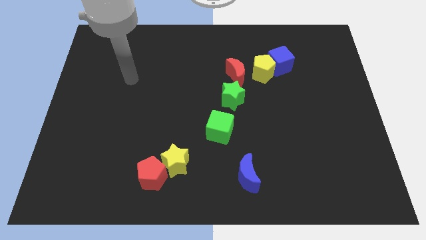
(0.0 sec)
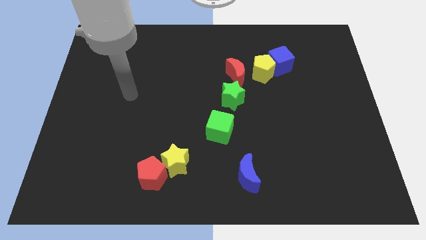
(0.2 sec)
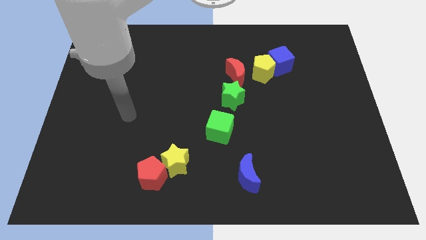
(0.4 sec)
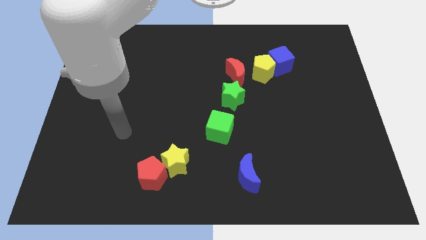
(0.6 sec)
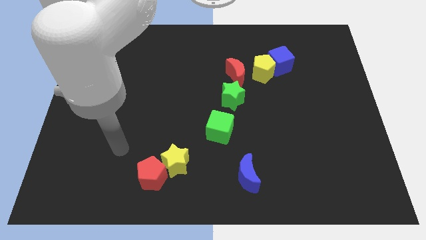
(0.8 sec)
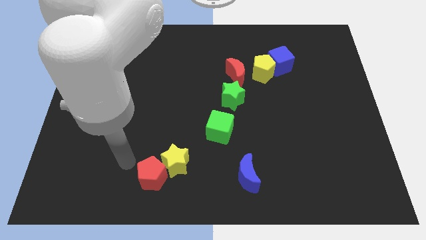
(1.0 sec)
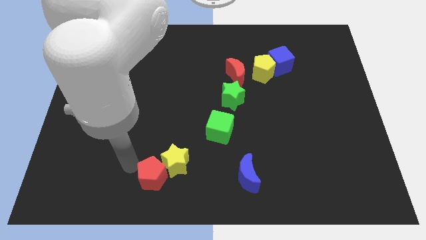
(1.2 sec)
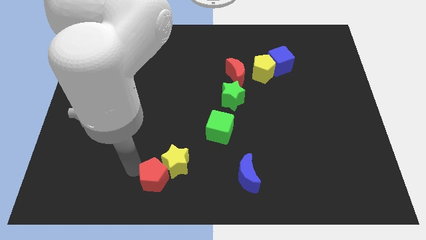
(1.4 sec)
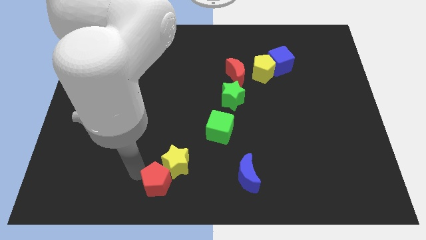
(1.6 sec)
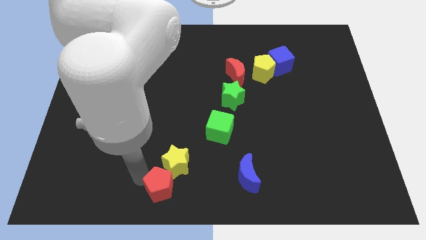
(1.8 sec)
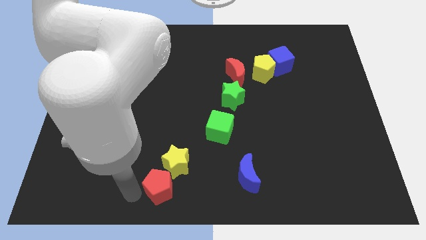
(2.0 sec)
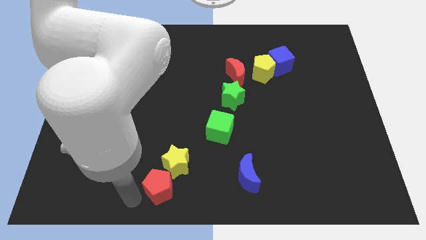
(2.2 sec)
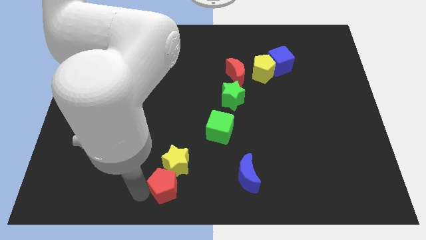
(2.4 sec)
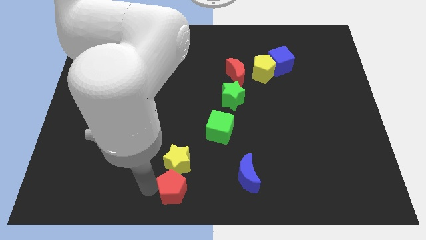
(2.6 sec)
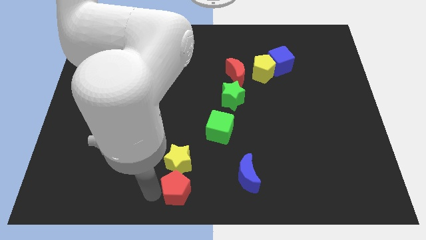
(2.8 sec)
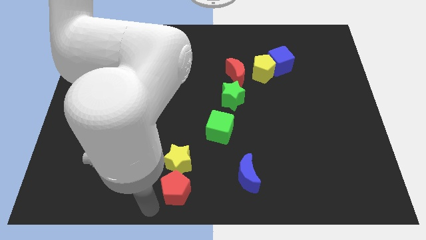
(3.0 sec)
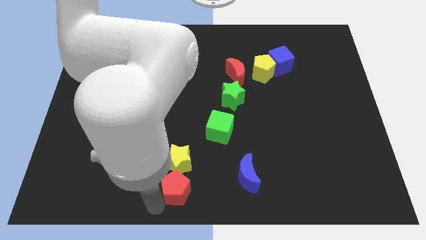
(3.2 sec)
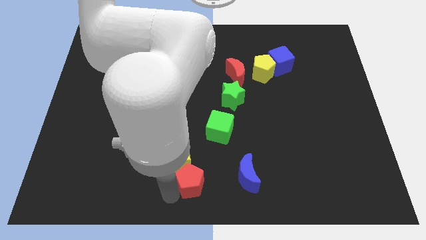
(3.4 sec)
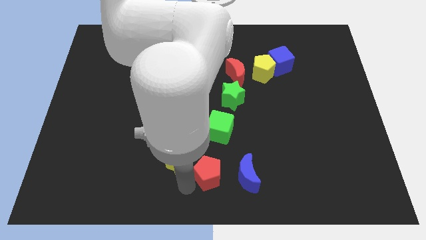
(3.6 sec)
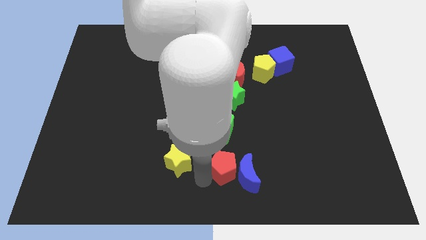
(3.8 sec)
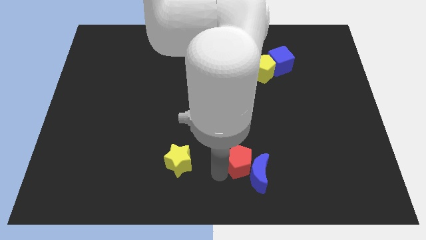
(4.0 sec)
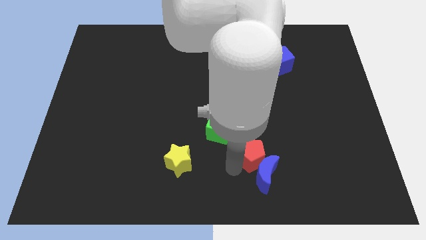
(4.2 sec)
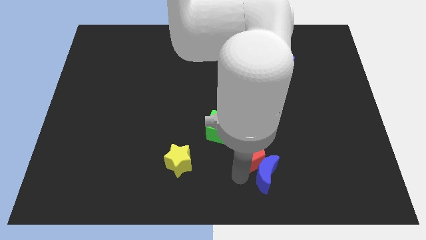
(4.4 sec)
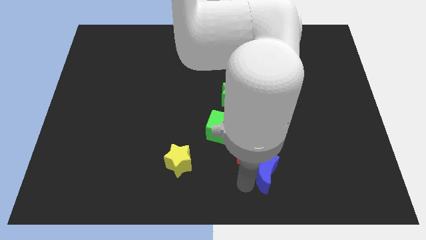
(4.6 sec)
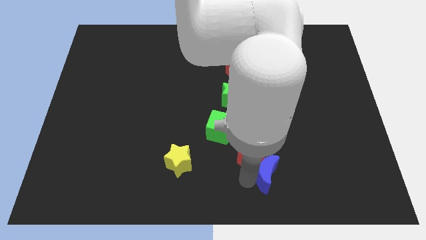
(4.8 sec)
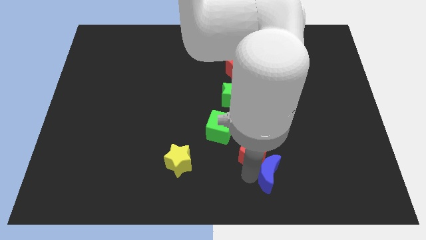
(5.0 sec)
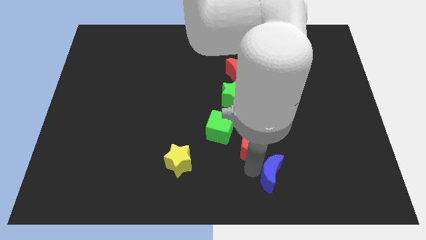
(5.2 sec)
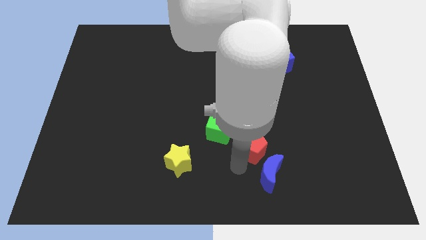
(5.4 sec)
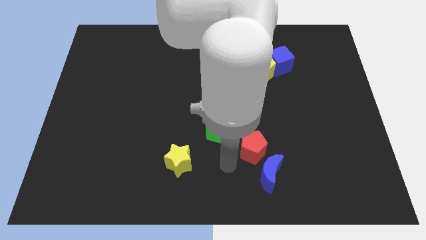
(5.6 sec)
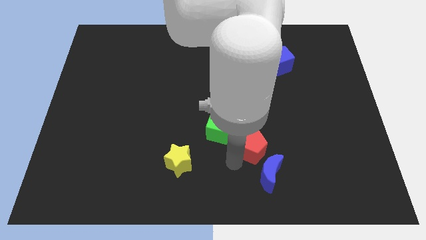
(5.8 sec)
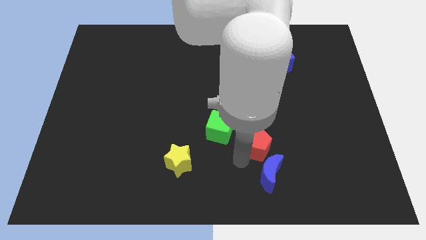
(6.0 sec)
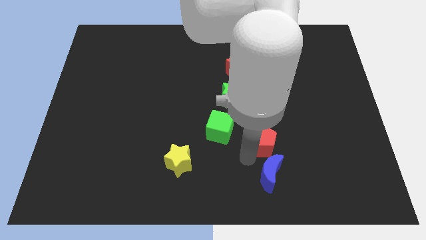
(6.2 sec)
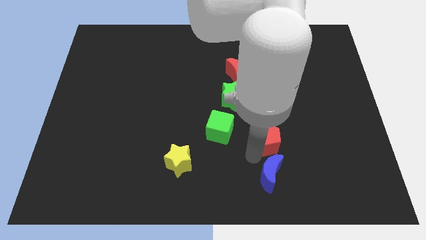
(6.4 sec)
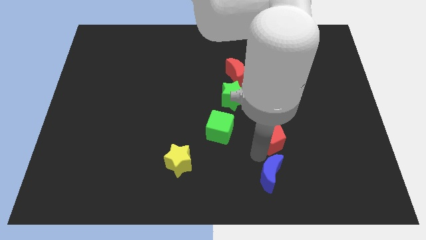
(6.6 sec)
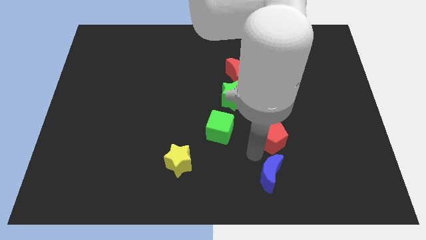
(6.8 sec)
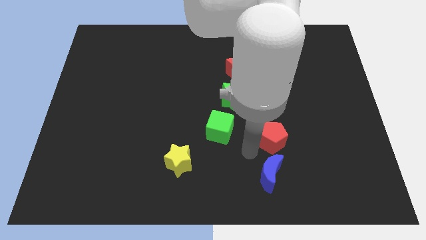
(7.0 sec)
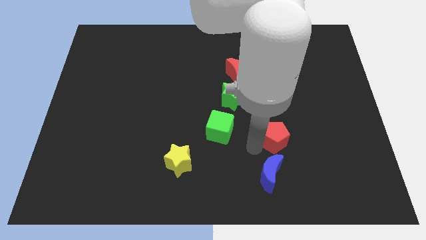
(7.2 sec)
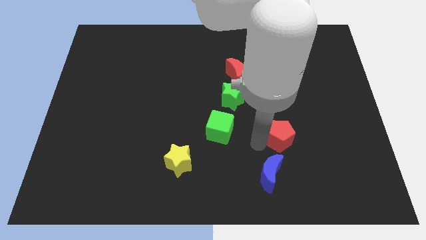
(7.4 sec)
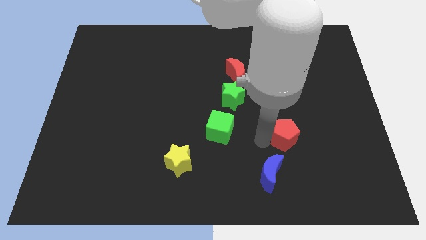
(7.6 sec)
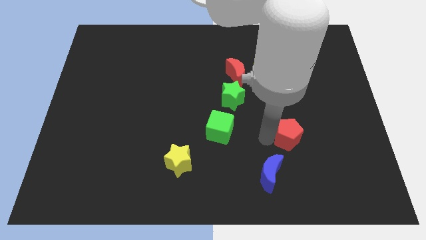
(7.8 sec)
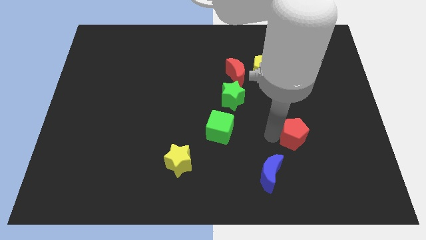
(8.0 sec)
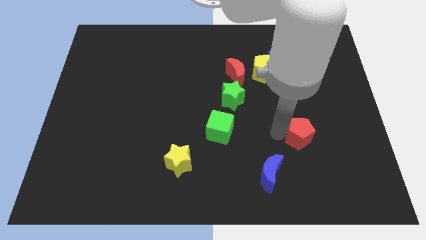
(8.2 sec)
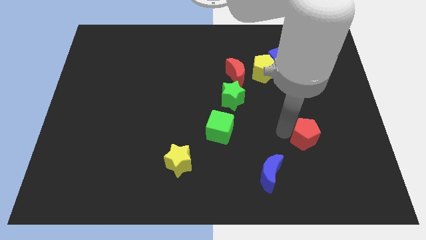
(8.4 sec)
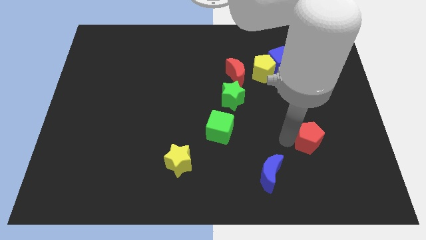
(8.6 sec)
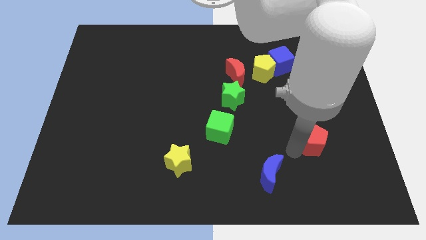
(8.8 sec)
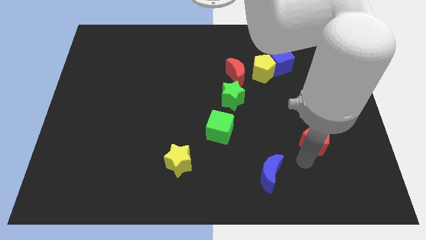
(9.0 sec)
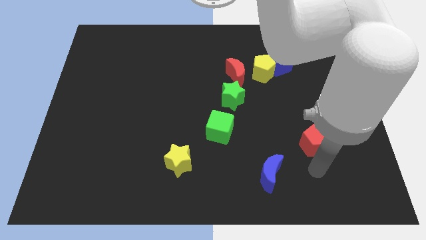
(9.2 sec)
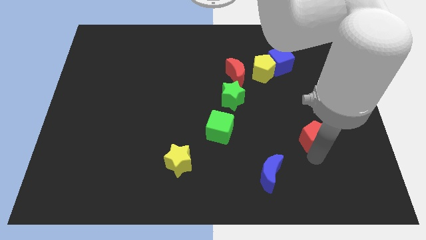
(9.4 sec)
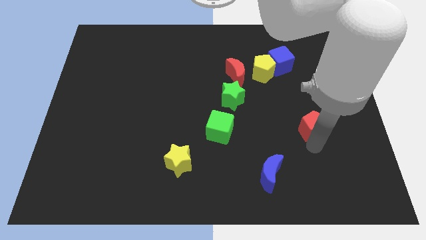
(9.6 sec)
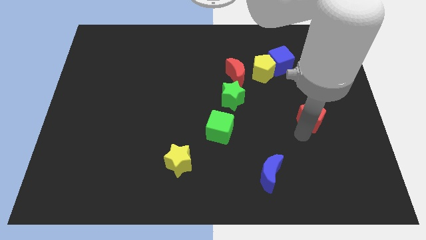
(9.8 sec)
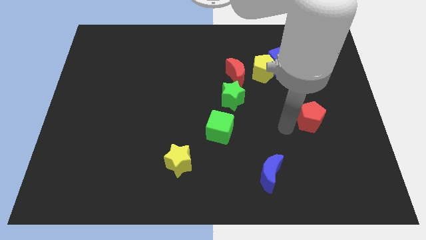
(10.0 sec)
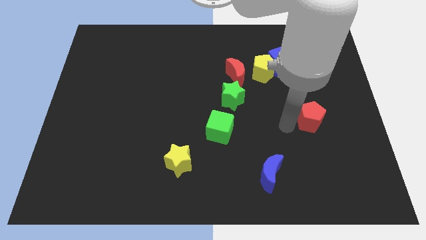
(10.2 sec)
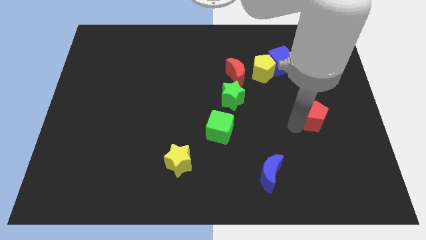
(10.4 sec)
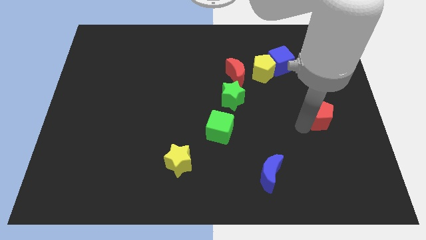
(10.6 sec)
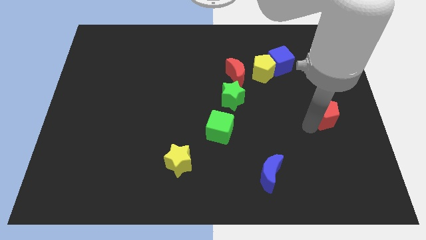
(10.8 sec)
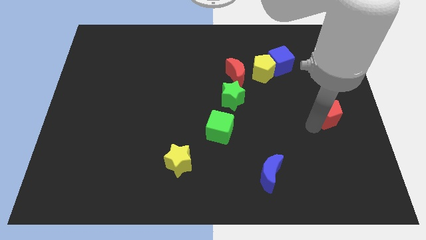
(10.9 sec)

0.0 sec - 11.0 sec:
slide the red pentagon to the right side
